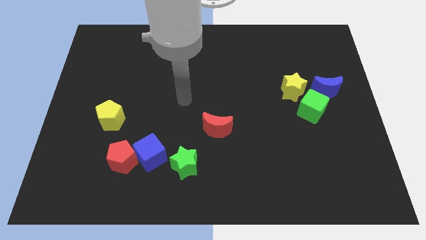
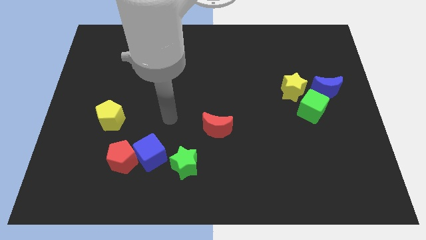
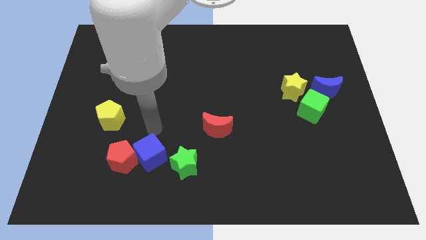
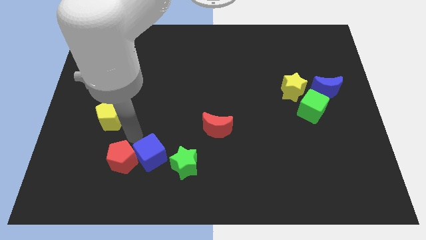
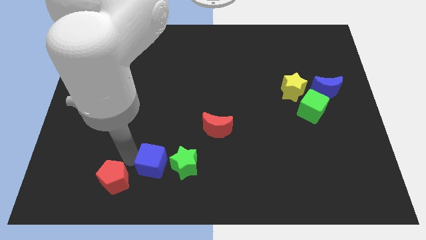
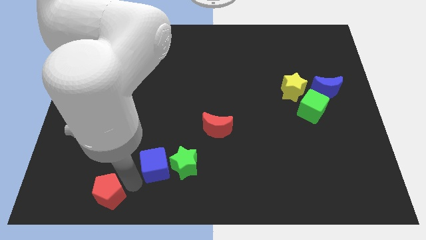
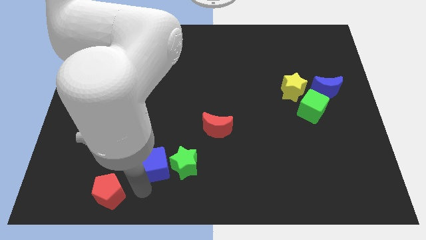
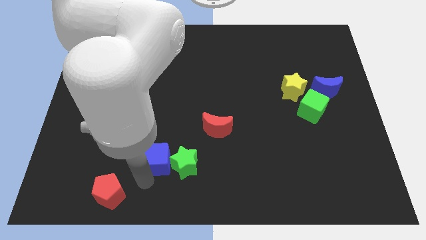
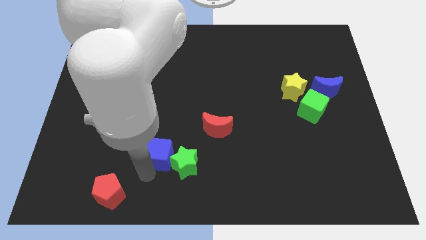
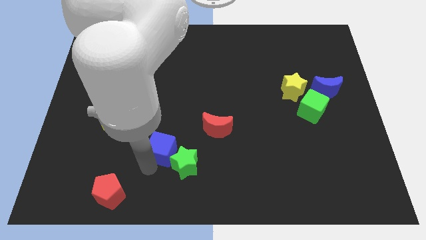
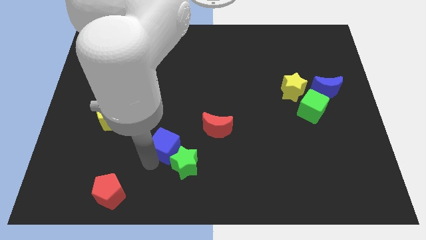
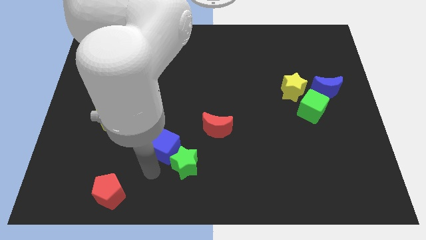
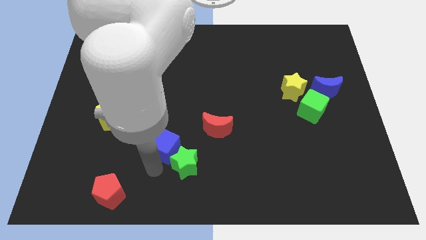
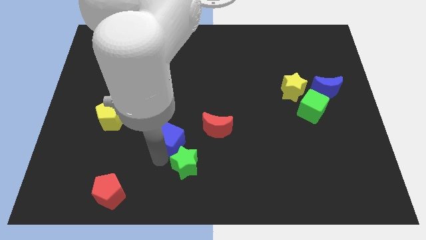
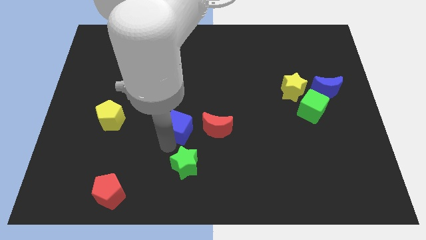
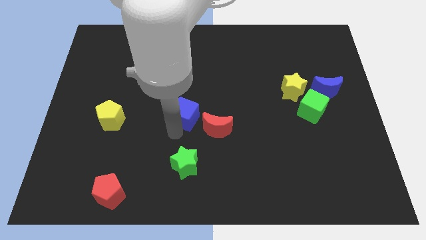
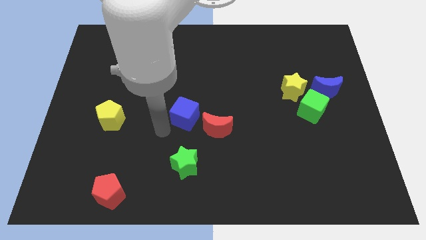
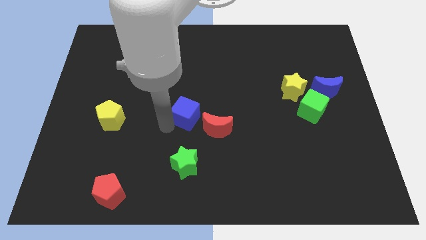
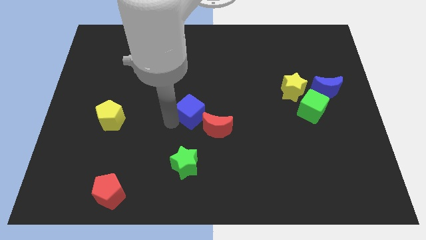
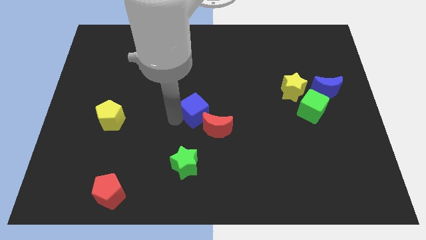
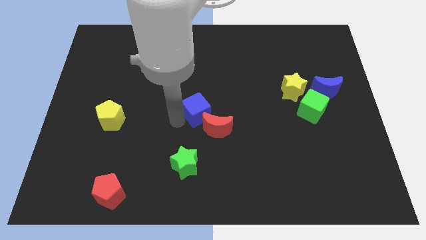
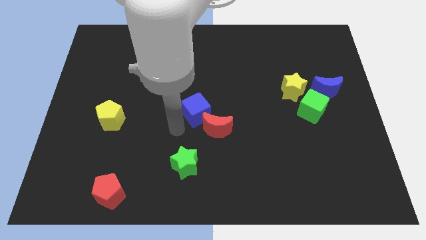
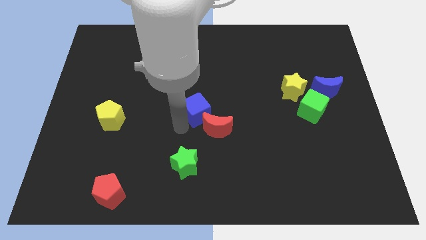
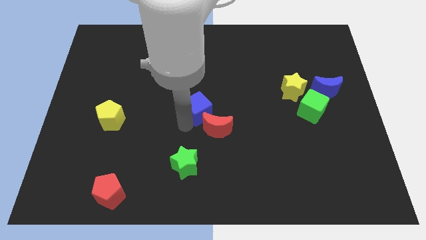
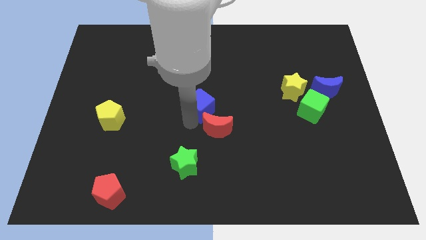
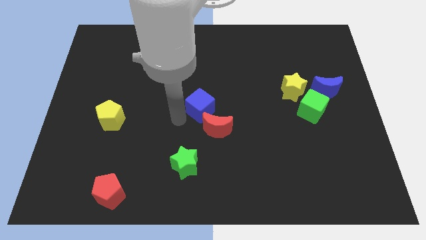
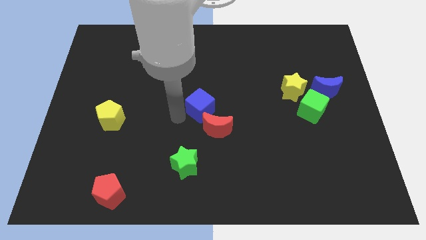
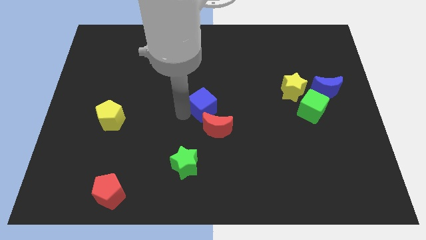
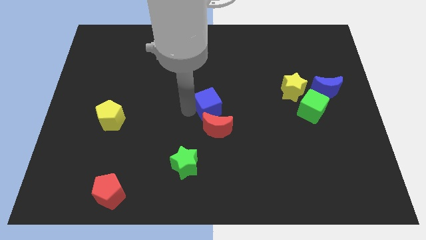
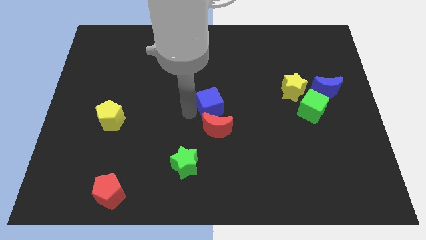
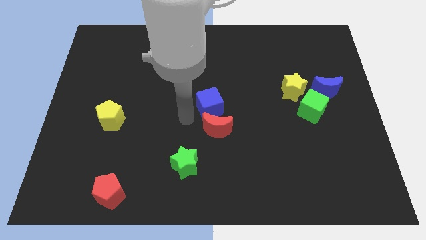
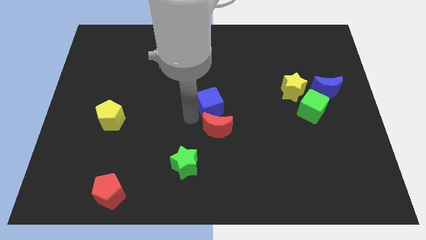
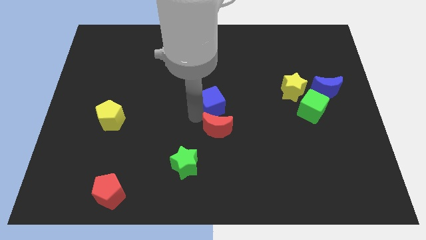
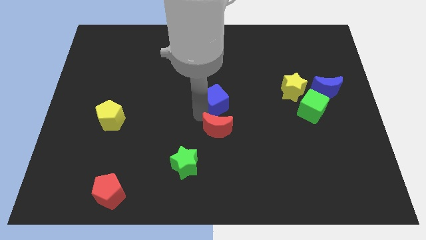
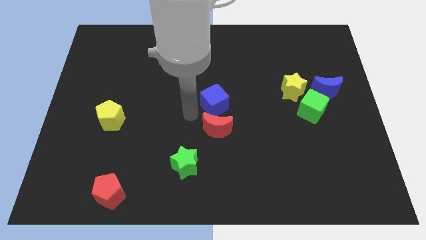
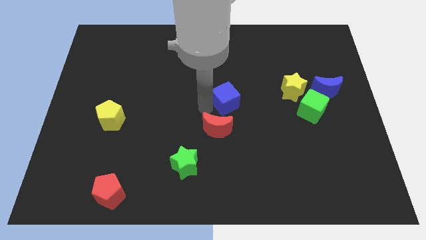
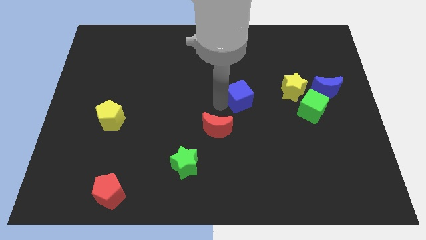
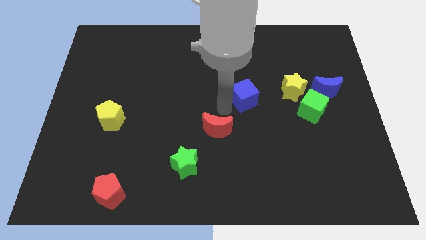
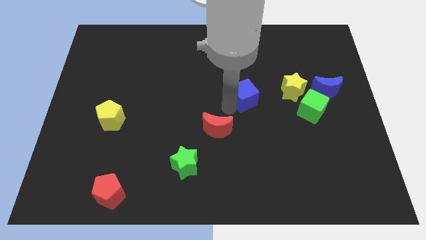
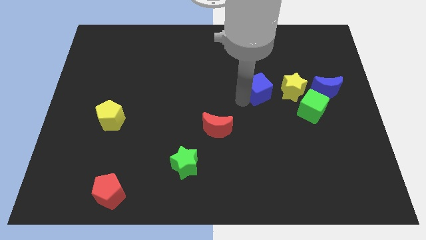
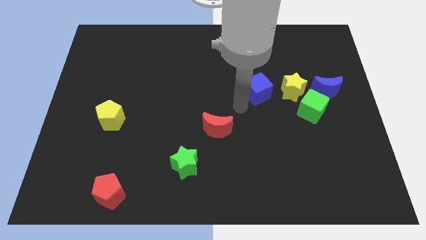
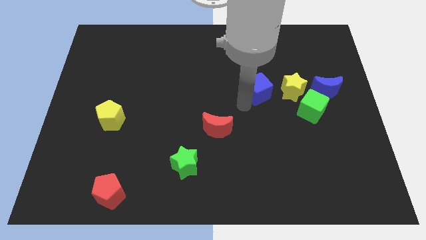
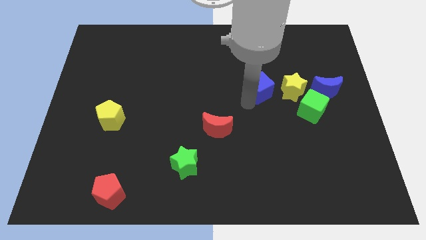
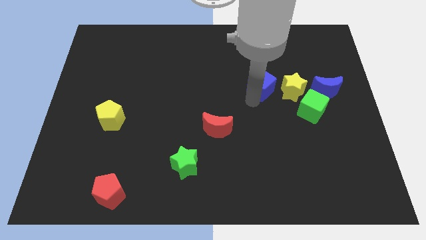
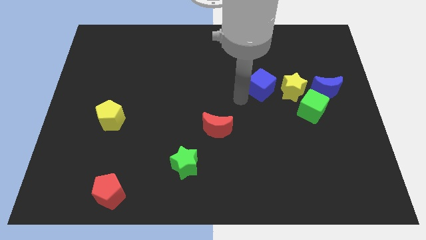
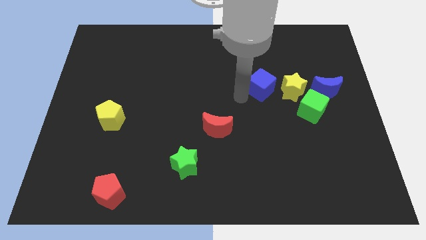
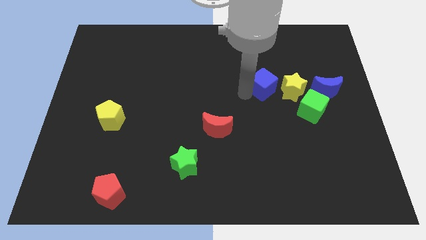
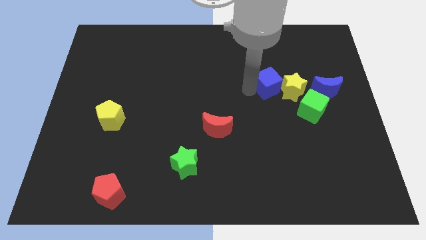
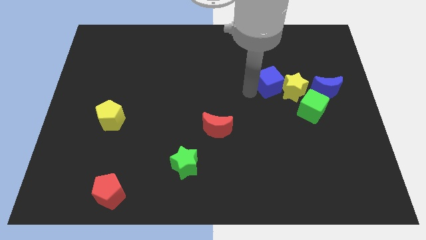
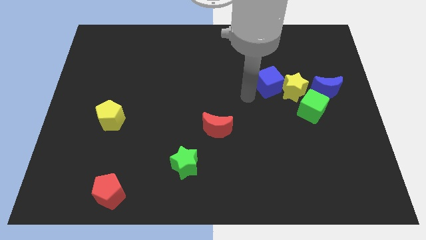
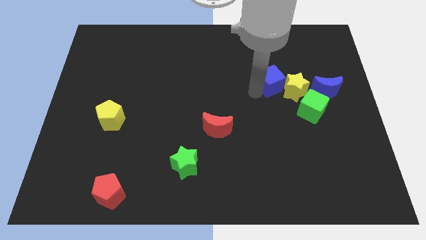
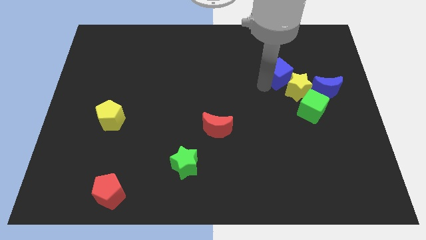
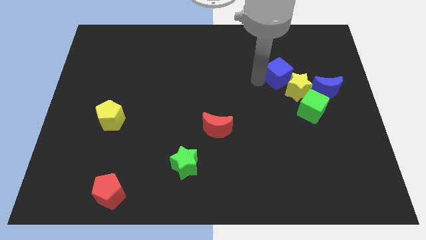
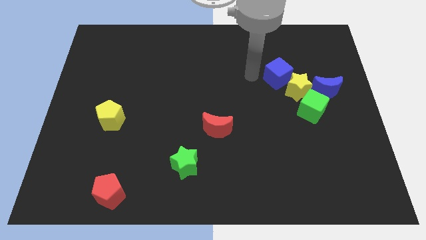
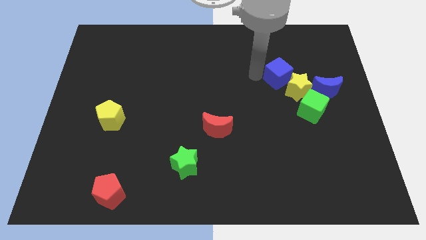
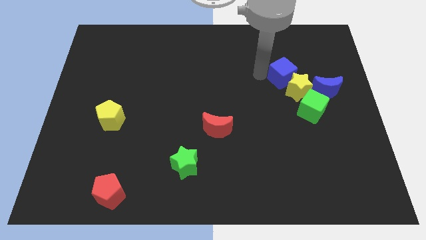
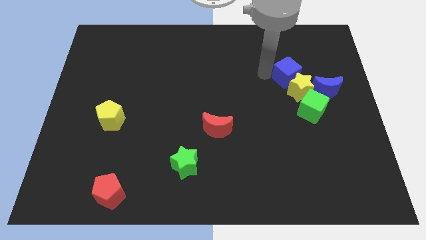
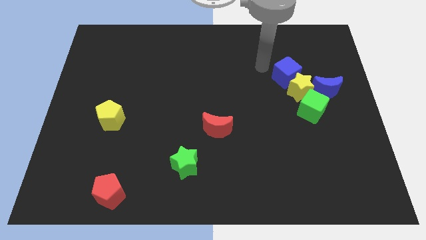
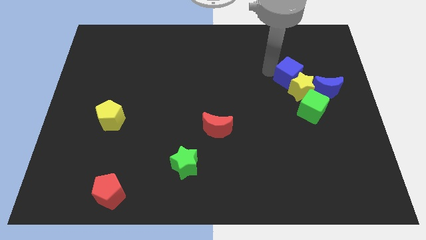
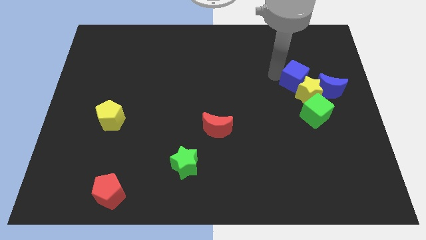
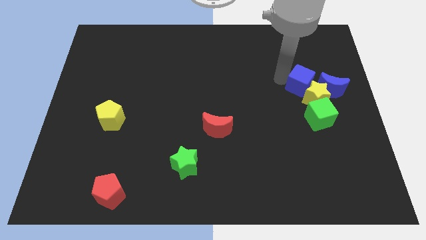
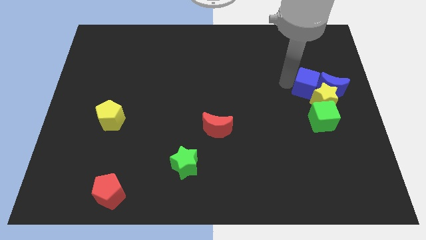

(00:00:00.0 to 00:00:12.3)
slide the blue cube to the blue moon

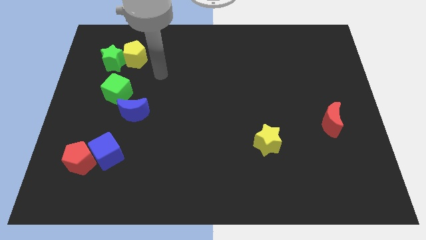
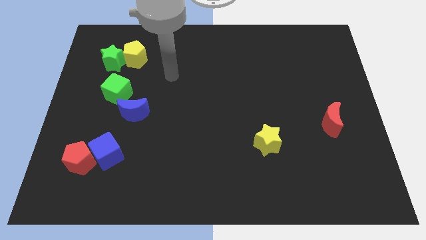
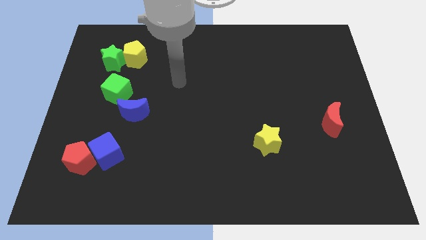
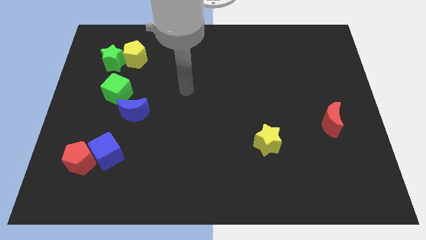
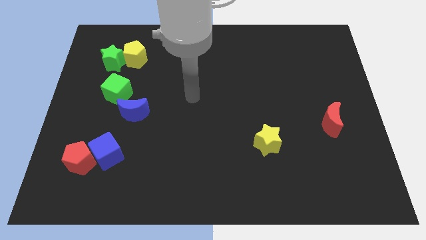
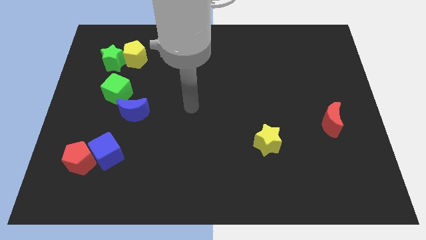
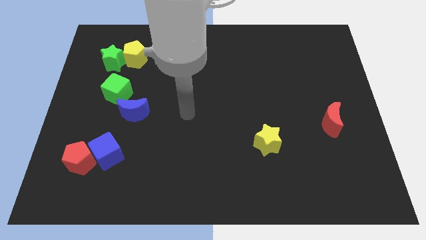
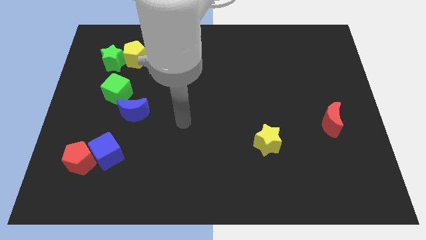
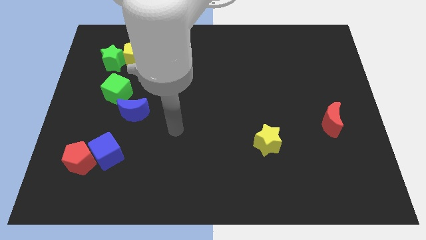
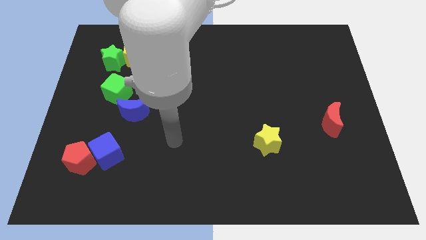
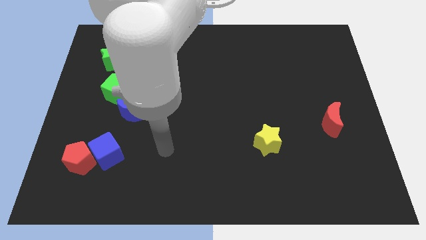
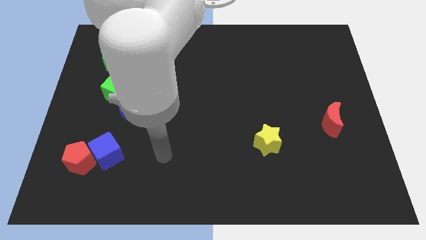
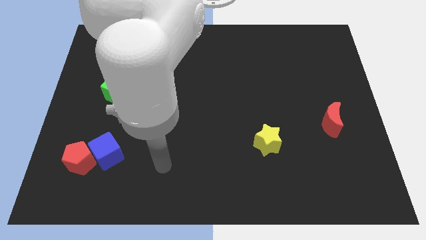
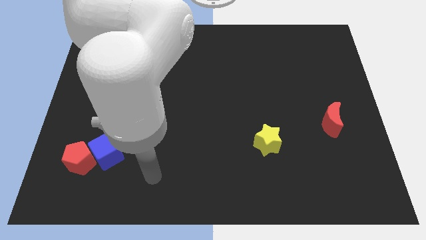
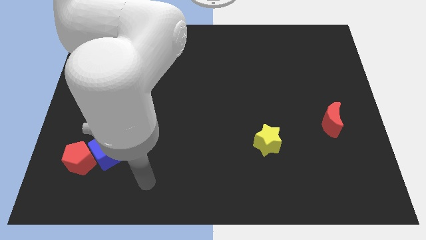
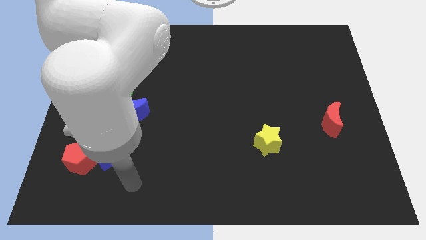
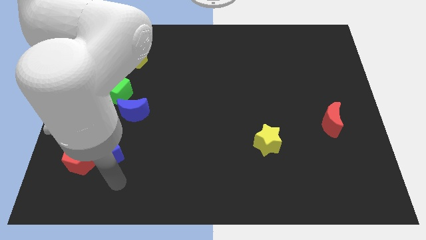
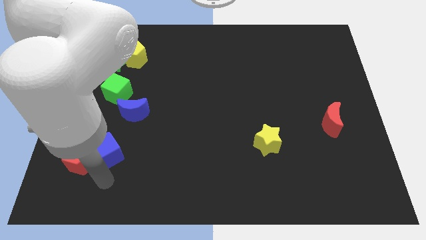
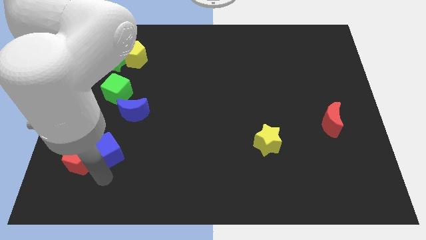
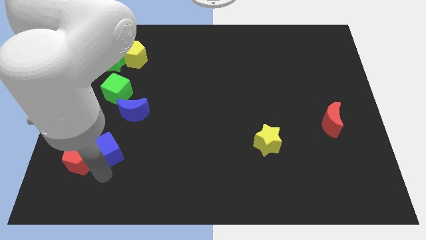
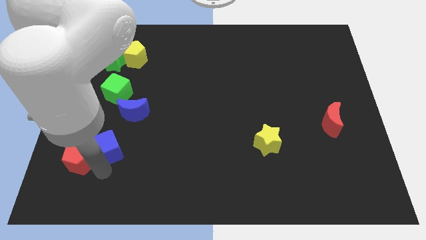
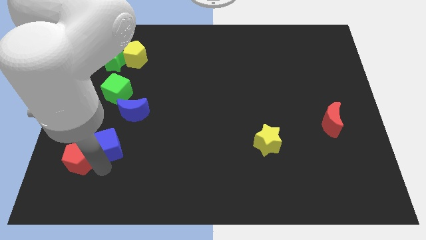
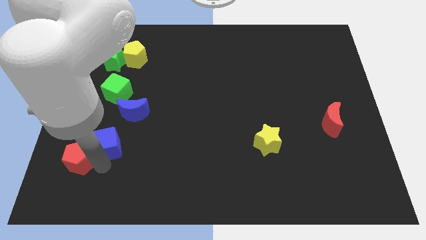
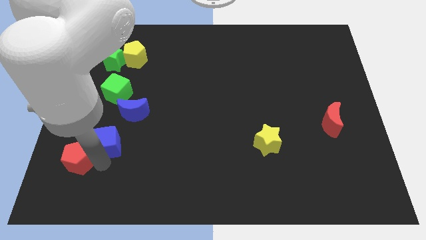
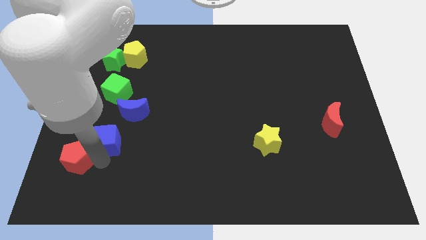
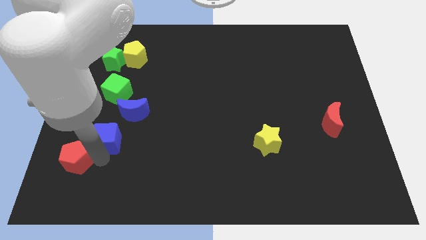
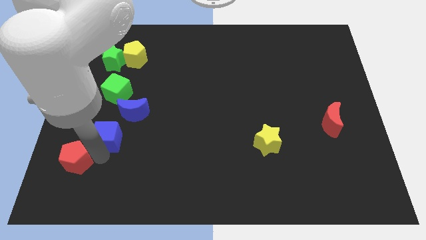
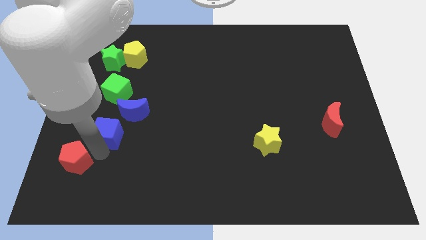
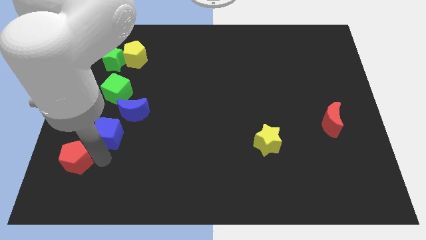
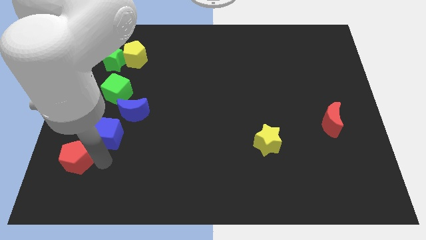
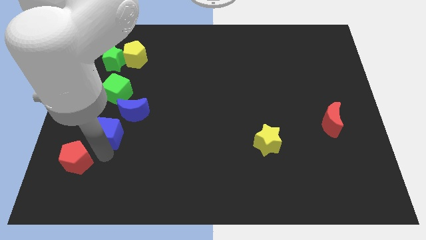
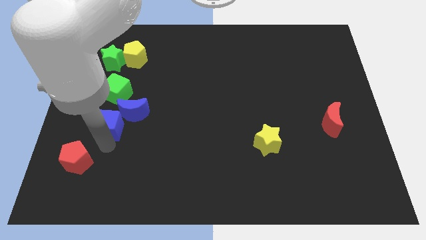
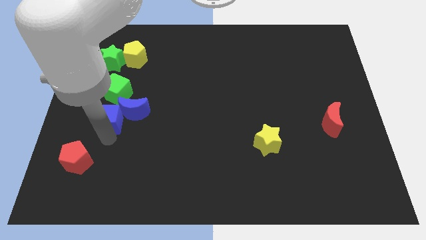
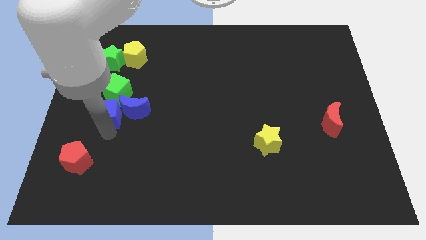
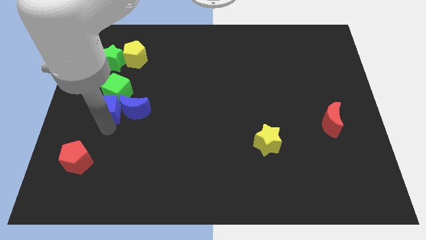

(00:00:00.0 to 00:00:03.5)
push the blue cube towards the green cube
